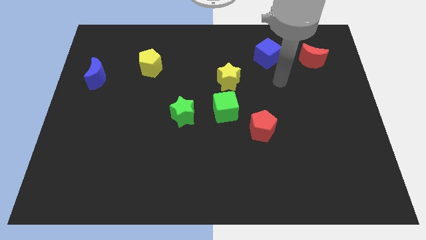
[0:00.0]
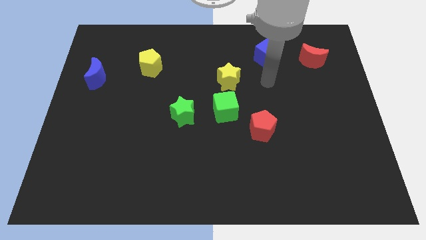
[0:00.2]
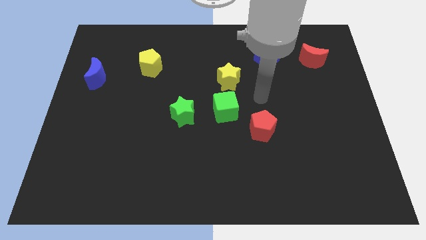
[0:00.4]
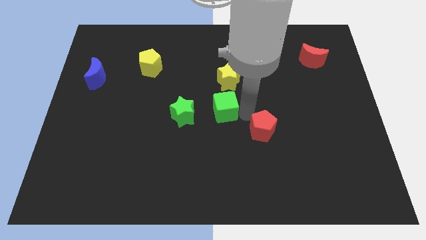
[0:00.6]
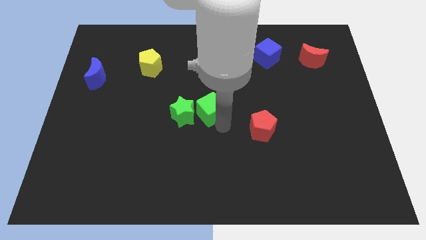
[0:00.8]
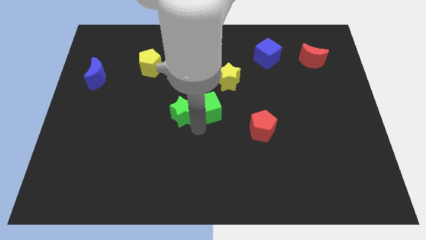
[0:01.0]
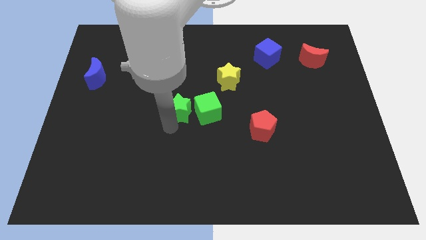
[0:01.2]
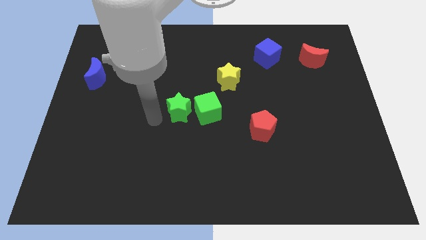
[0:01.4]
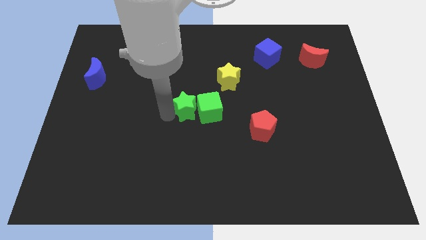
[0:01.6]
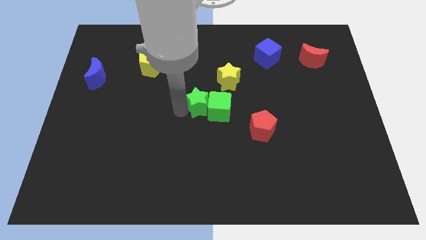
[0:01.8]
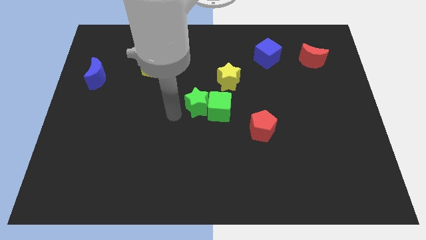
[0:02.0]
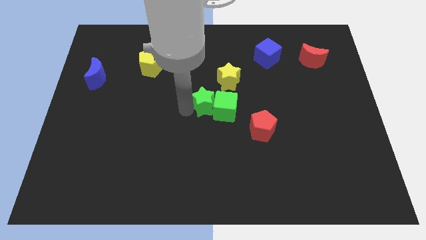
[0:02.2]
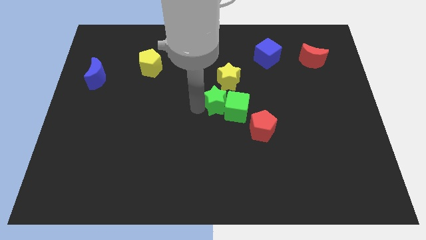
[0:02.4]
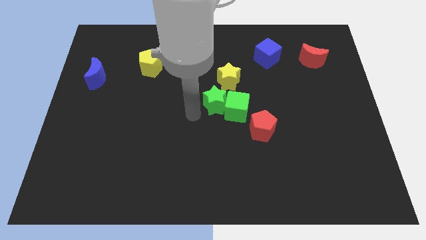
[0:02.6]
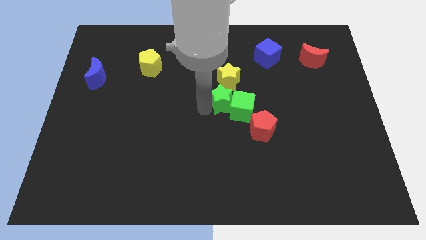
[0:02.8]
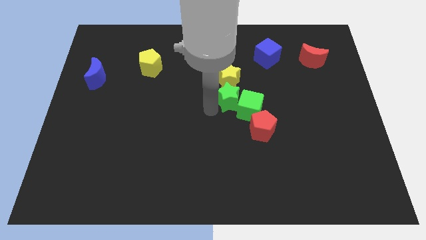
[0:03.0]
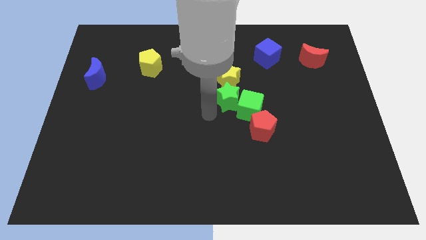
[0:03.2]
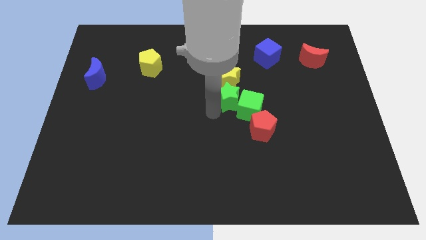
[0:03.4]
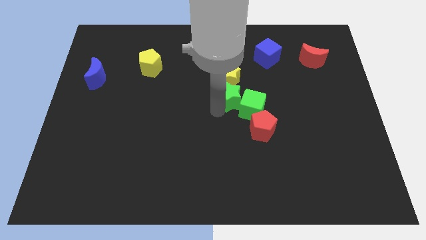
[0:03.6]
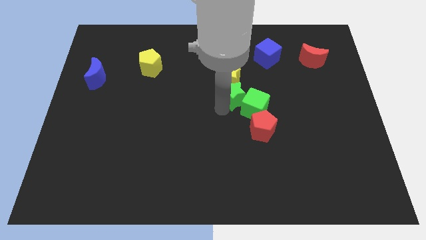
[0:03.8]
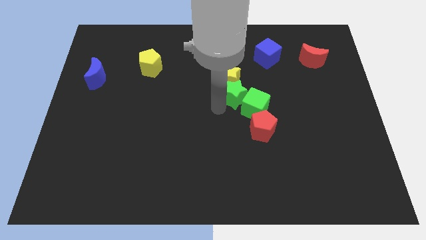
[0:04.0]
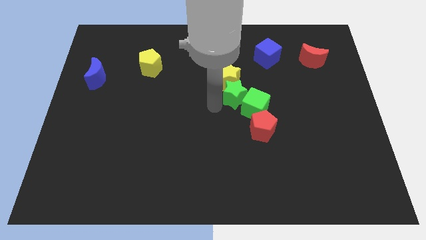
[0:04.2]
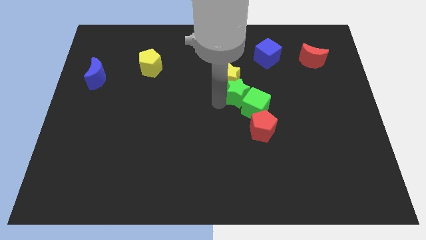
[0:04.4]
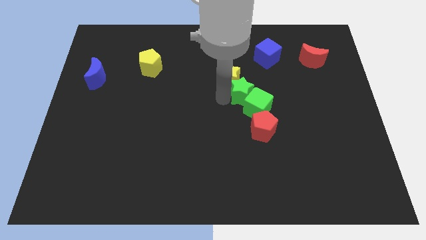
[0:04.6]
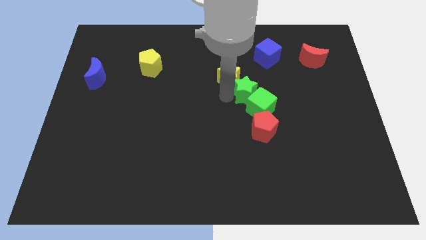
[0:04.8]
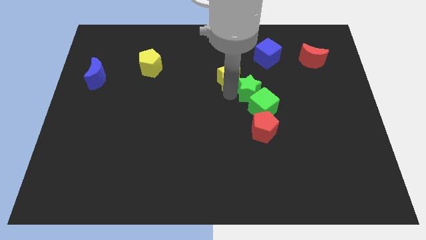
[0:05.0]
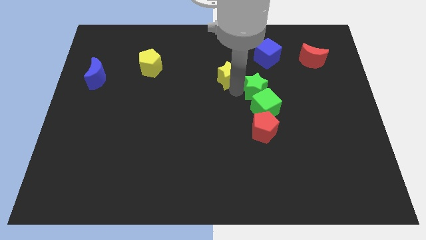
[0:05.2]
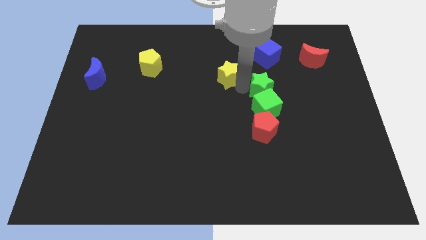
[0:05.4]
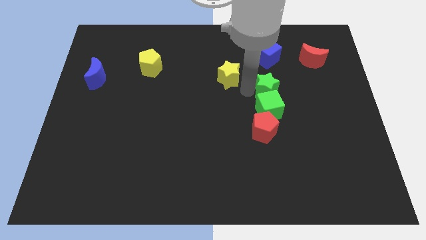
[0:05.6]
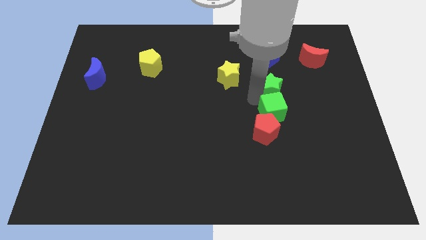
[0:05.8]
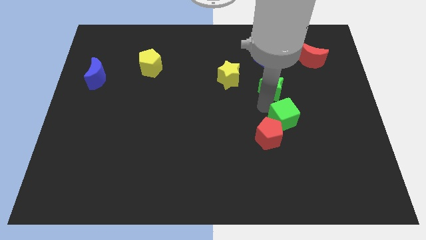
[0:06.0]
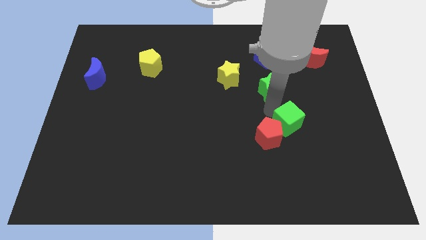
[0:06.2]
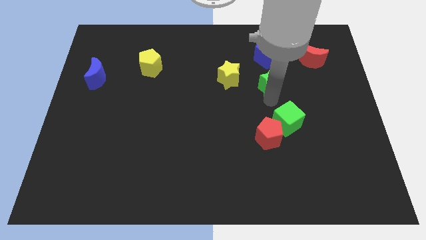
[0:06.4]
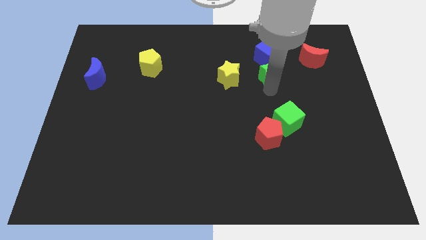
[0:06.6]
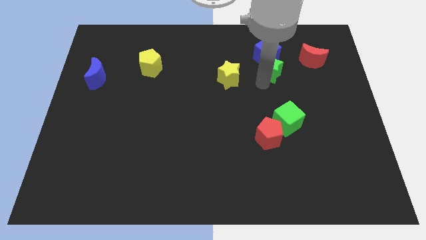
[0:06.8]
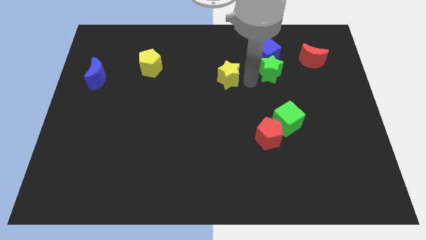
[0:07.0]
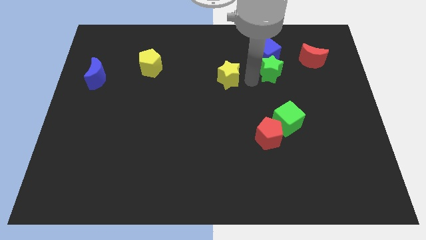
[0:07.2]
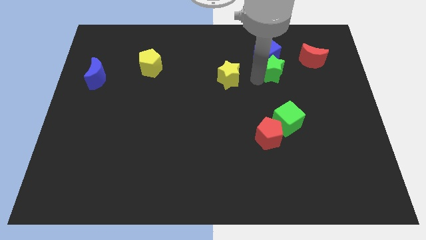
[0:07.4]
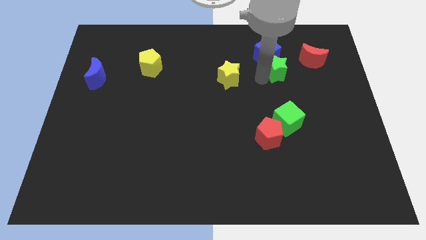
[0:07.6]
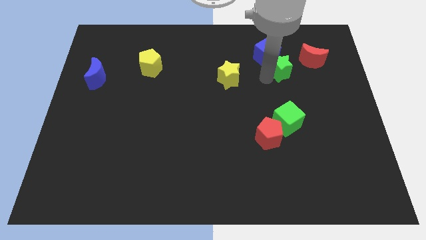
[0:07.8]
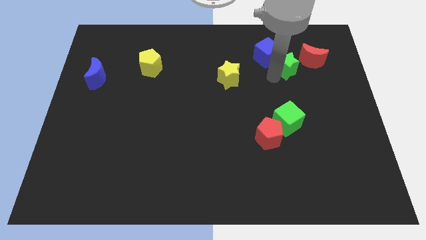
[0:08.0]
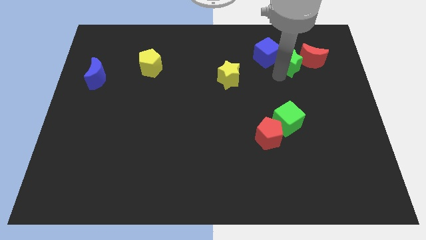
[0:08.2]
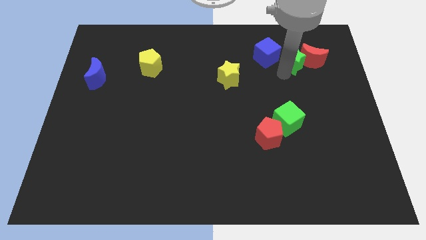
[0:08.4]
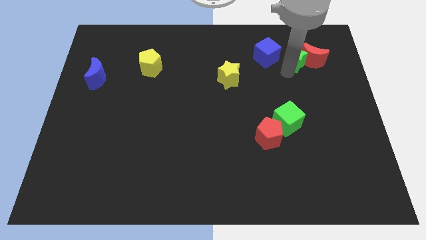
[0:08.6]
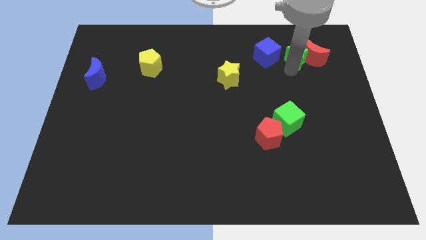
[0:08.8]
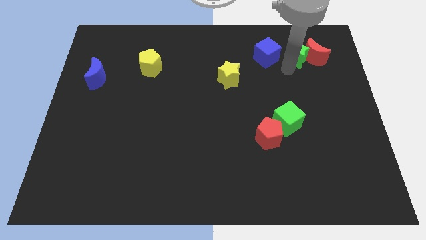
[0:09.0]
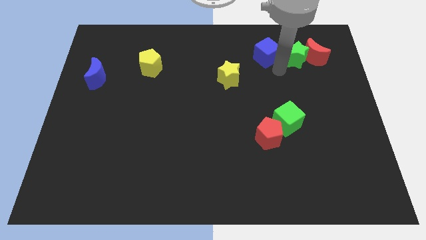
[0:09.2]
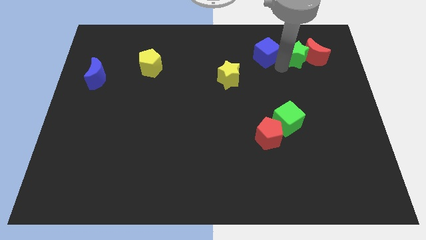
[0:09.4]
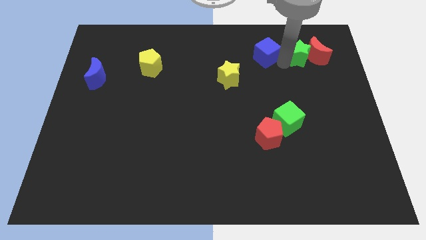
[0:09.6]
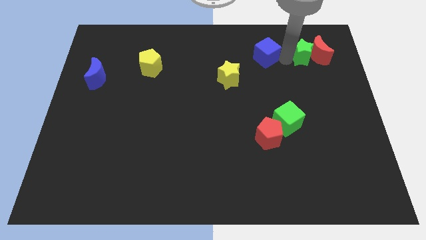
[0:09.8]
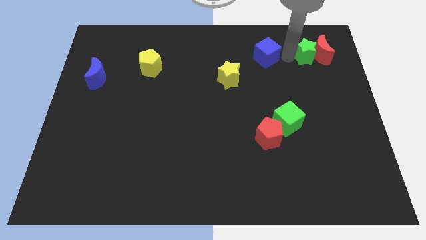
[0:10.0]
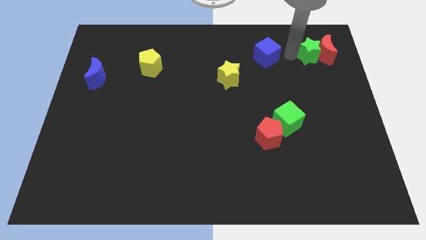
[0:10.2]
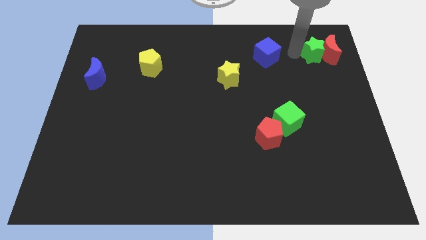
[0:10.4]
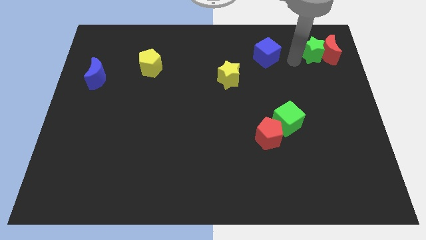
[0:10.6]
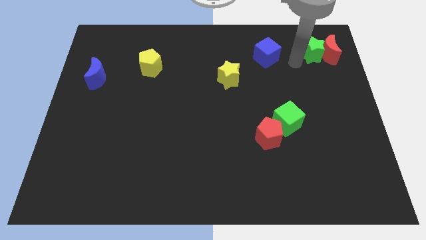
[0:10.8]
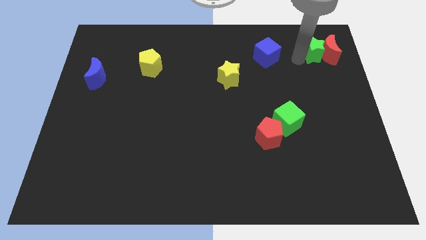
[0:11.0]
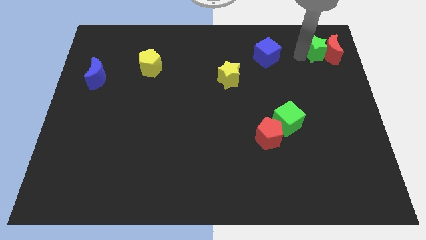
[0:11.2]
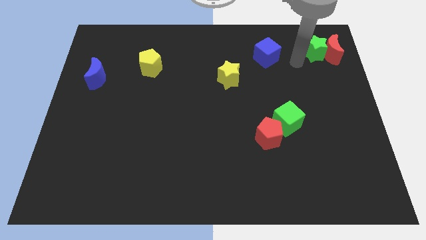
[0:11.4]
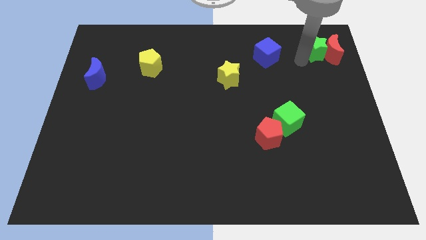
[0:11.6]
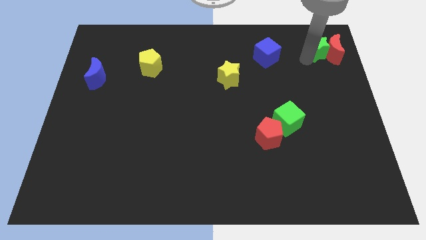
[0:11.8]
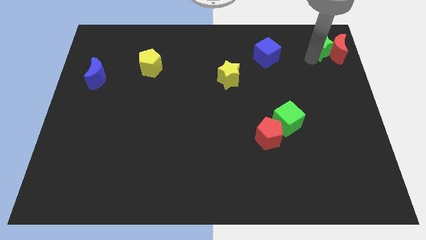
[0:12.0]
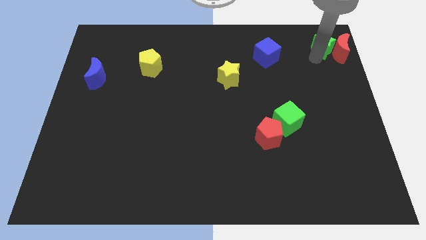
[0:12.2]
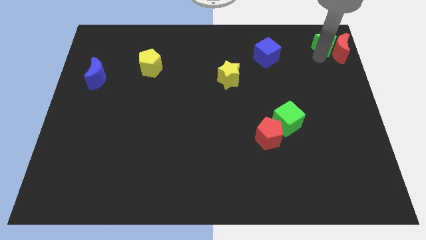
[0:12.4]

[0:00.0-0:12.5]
slide the green star to the top right
